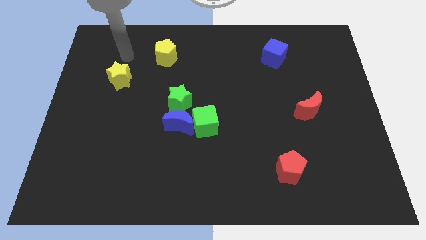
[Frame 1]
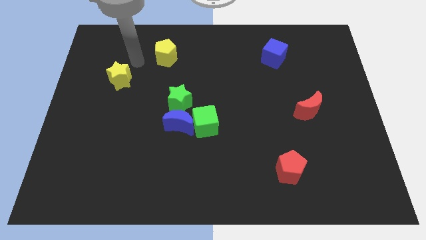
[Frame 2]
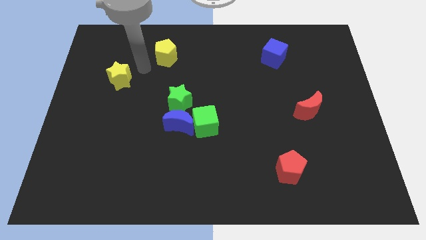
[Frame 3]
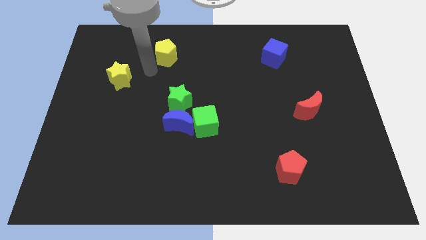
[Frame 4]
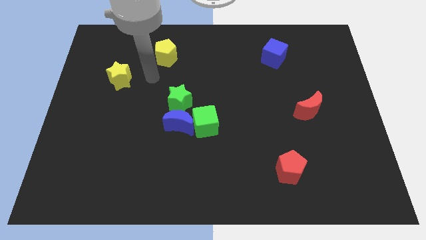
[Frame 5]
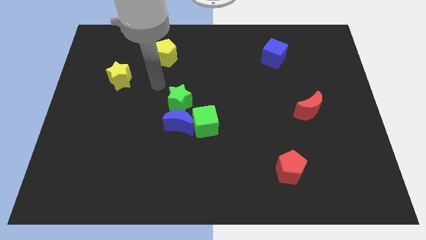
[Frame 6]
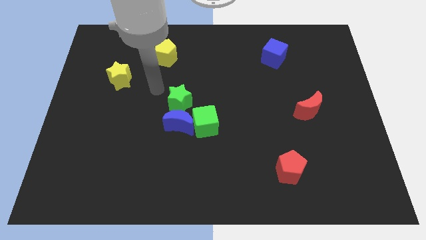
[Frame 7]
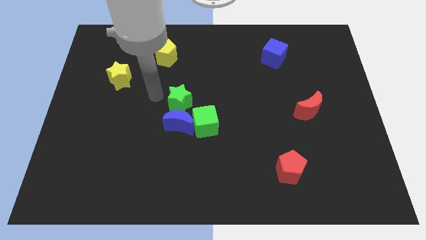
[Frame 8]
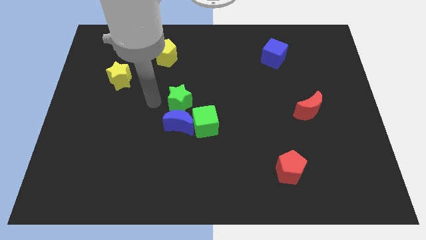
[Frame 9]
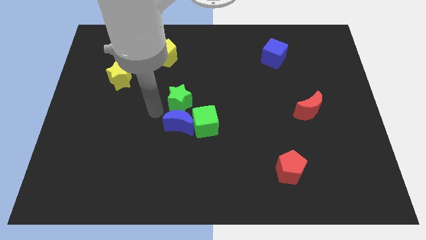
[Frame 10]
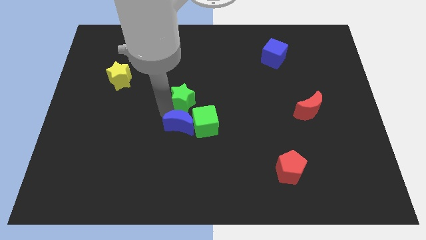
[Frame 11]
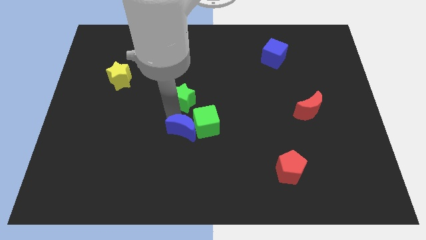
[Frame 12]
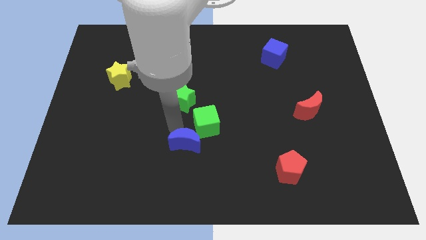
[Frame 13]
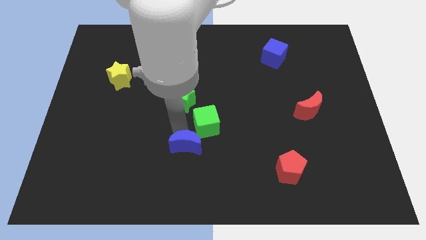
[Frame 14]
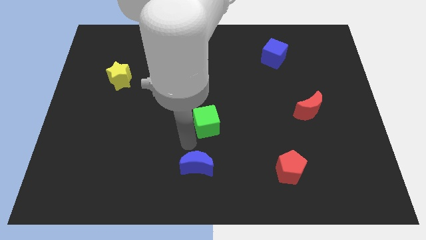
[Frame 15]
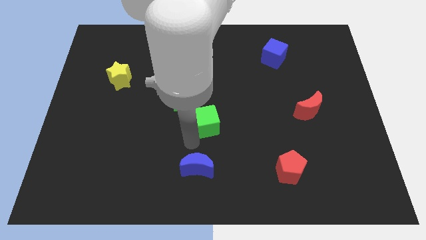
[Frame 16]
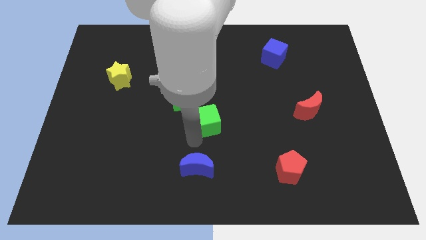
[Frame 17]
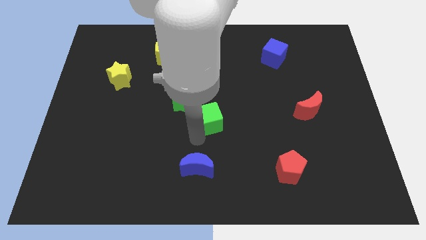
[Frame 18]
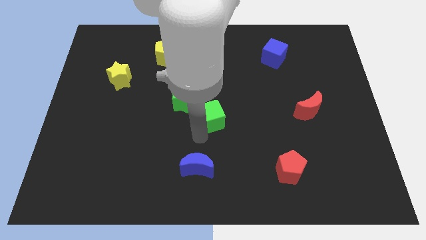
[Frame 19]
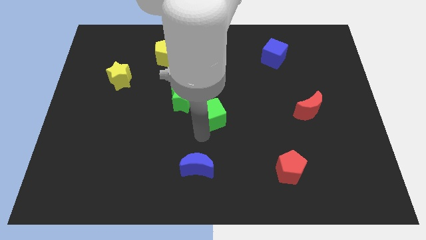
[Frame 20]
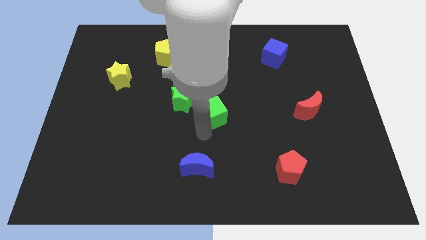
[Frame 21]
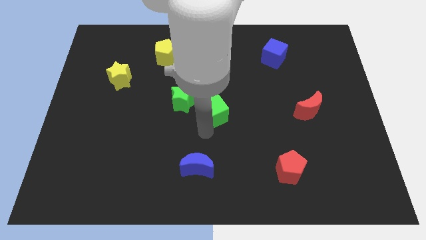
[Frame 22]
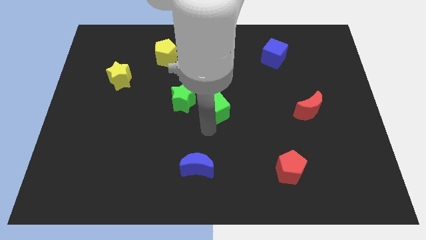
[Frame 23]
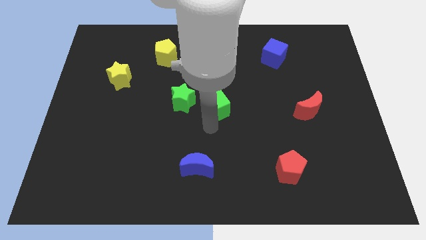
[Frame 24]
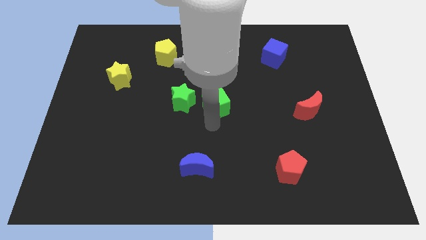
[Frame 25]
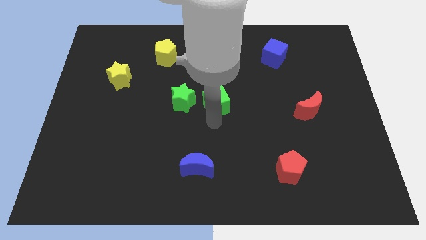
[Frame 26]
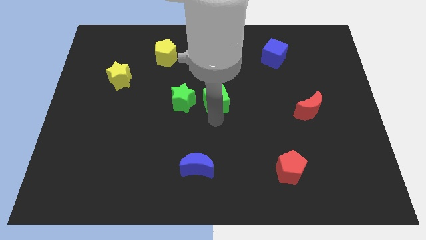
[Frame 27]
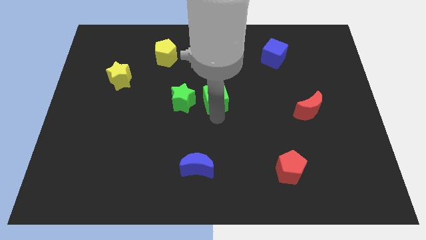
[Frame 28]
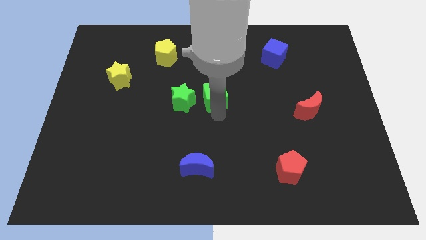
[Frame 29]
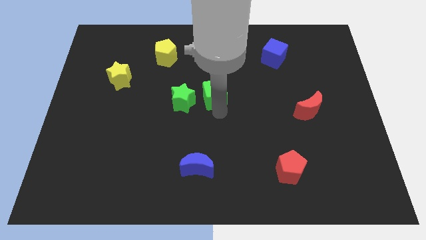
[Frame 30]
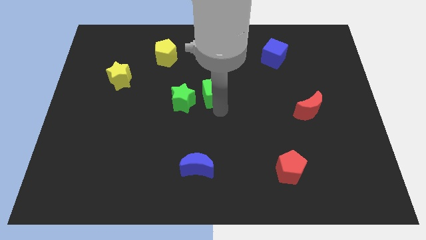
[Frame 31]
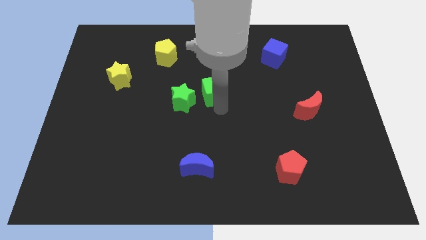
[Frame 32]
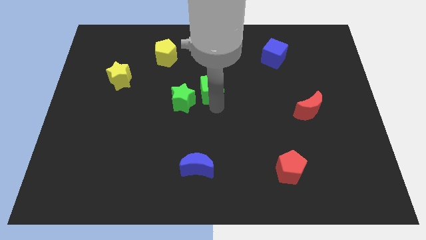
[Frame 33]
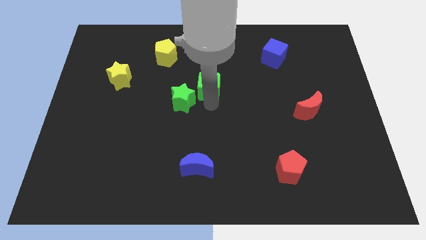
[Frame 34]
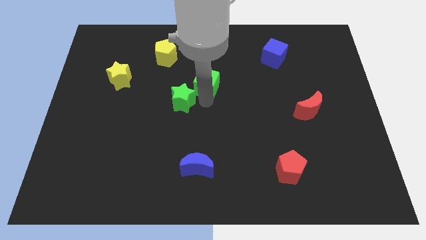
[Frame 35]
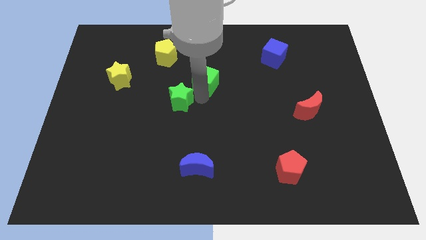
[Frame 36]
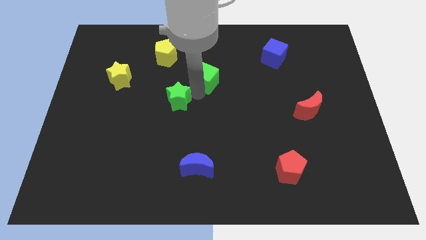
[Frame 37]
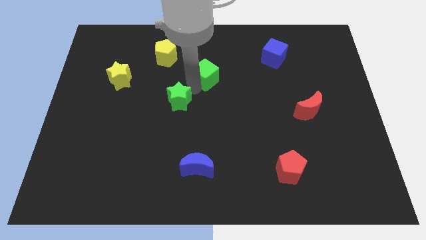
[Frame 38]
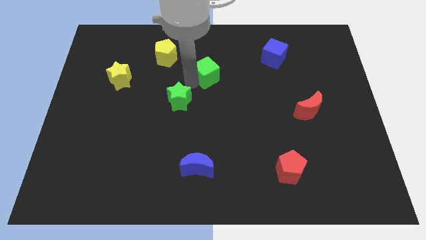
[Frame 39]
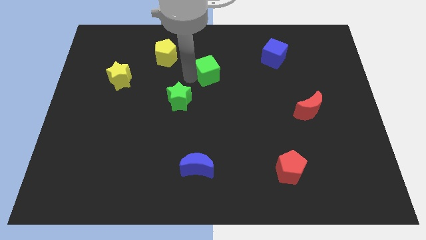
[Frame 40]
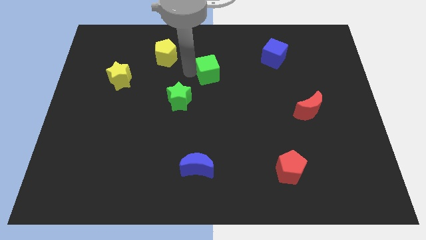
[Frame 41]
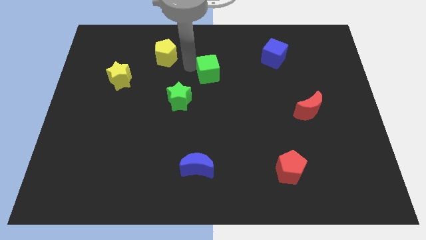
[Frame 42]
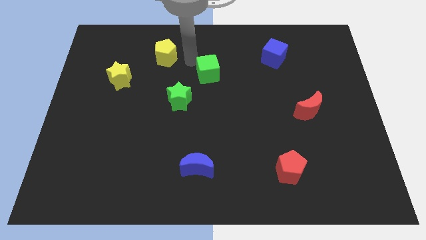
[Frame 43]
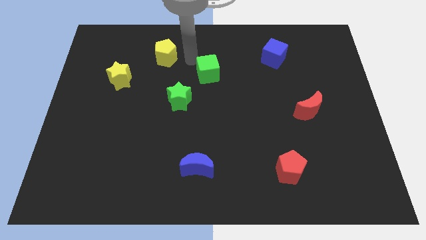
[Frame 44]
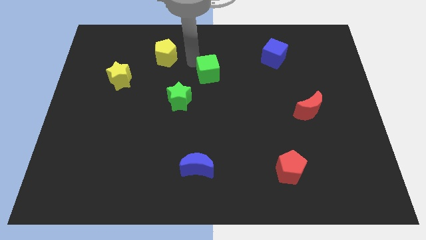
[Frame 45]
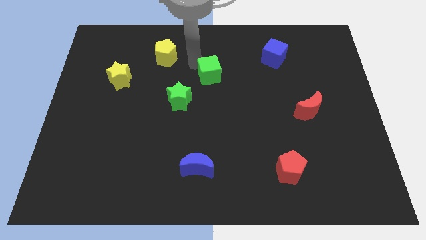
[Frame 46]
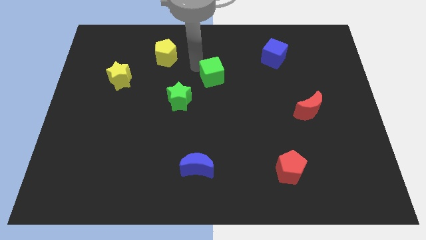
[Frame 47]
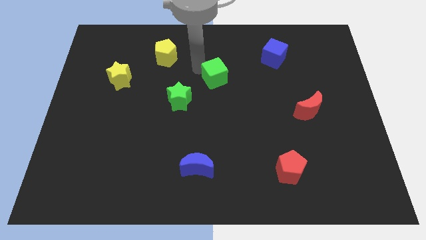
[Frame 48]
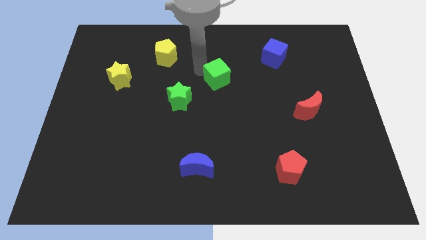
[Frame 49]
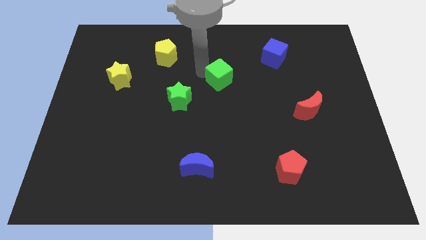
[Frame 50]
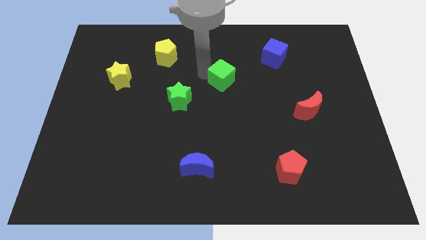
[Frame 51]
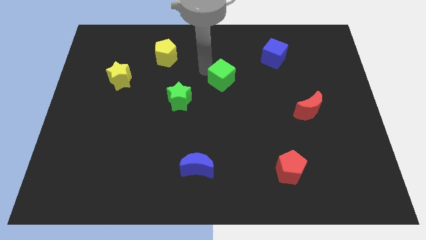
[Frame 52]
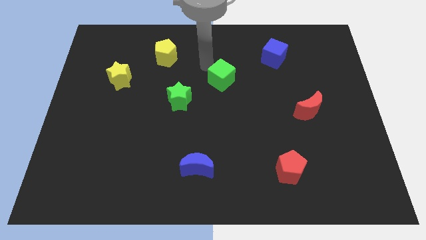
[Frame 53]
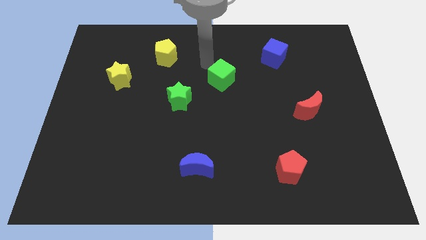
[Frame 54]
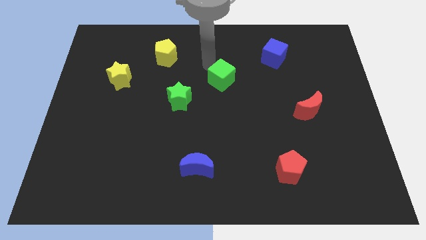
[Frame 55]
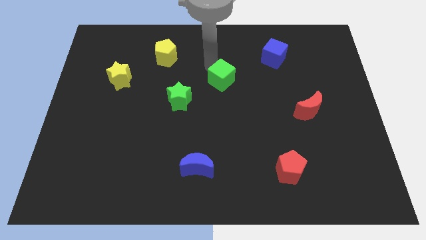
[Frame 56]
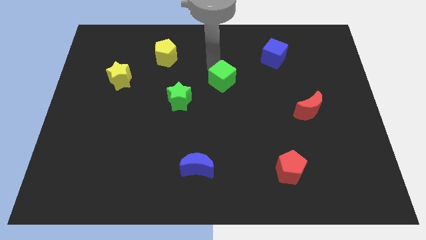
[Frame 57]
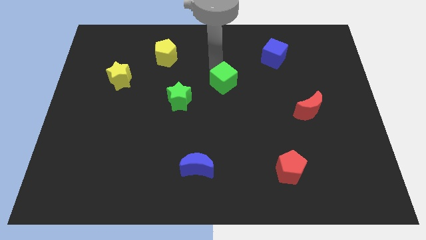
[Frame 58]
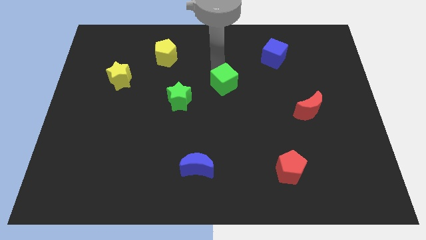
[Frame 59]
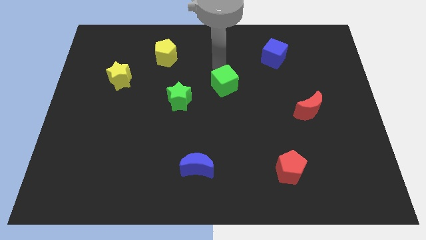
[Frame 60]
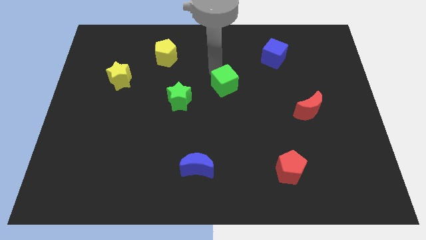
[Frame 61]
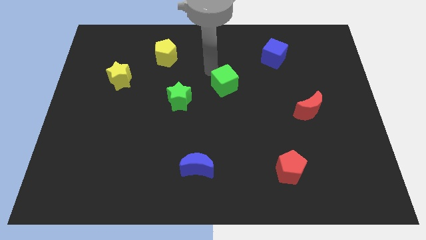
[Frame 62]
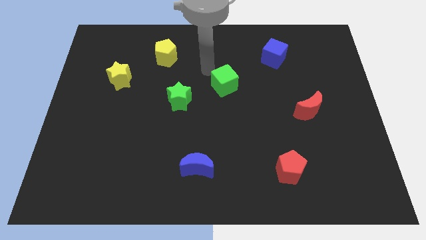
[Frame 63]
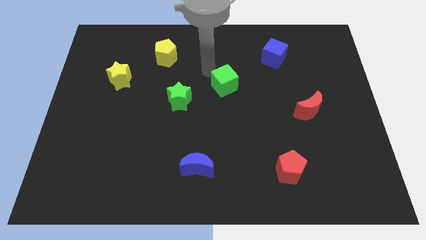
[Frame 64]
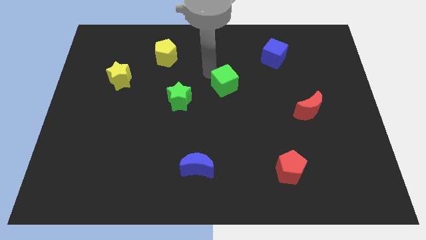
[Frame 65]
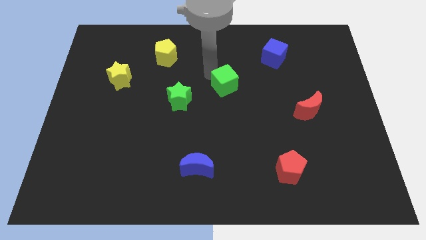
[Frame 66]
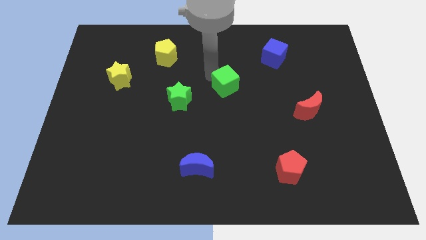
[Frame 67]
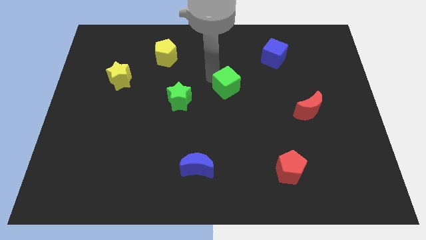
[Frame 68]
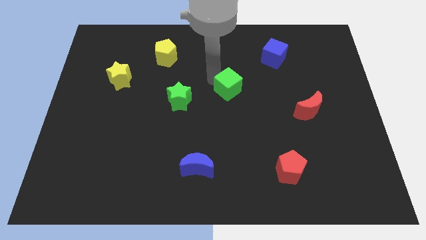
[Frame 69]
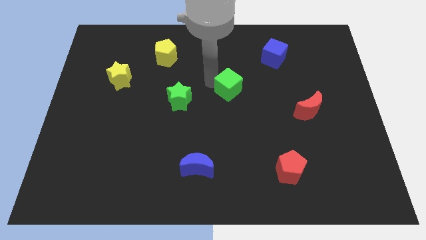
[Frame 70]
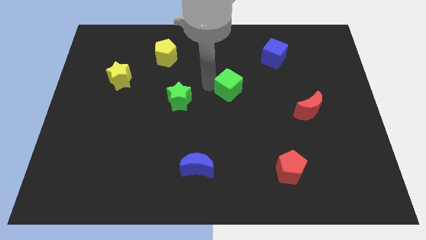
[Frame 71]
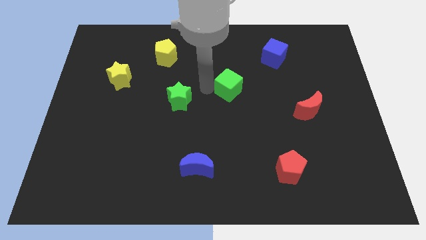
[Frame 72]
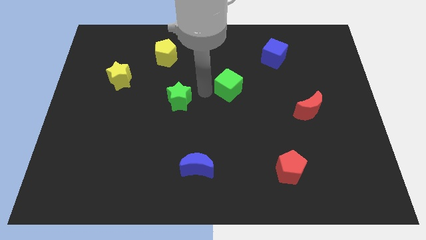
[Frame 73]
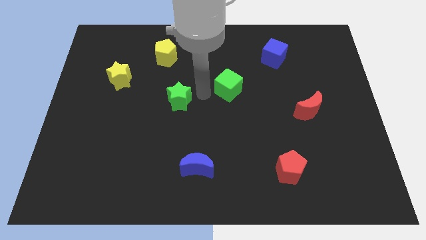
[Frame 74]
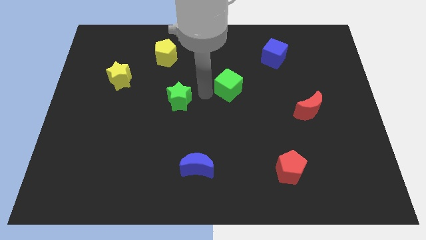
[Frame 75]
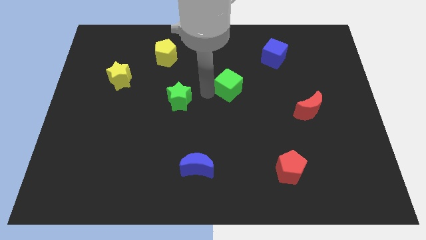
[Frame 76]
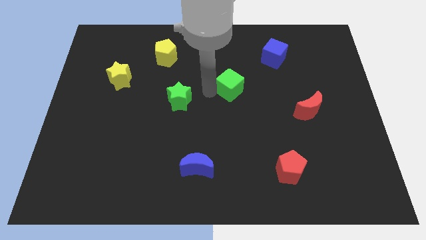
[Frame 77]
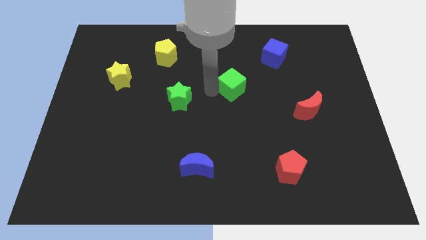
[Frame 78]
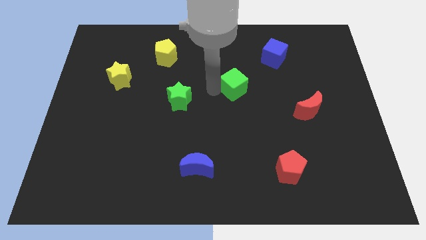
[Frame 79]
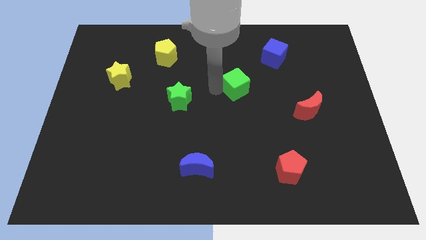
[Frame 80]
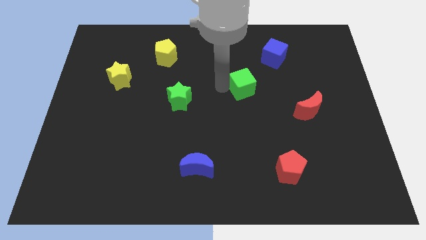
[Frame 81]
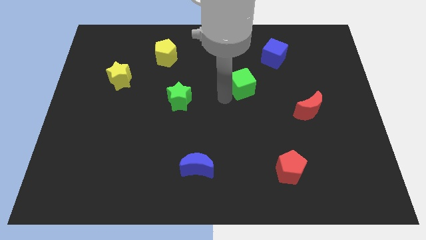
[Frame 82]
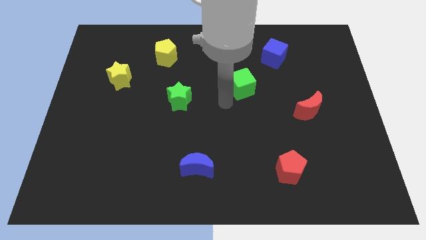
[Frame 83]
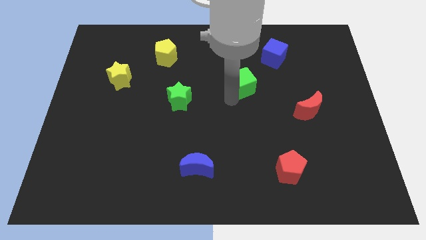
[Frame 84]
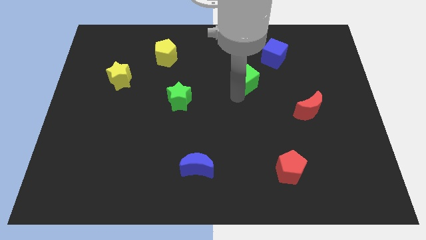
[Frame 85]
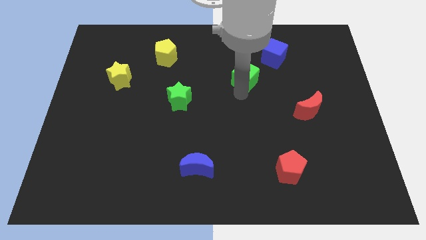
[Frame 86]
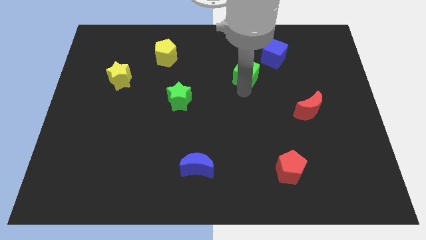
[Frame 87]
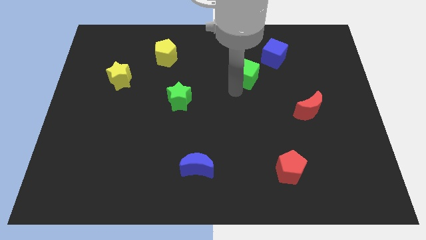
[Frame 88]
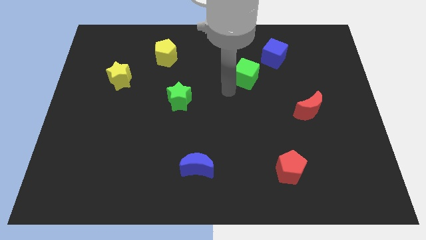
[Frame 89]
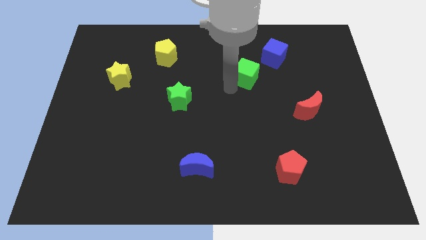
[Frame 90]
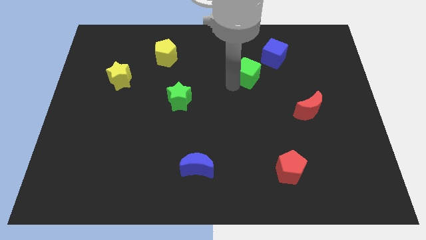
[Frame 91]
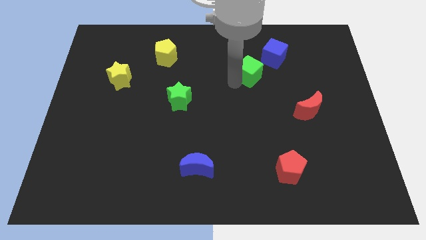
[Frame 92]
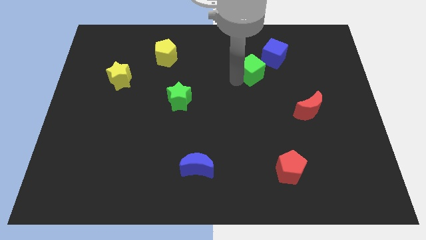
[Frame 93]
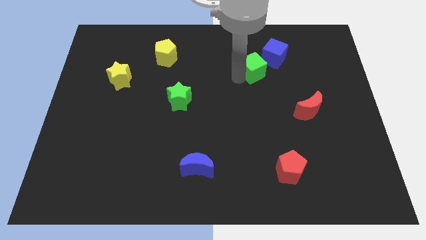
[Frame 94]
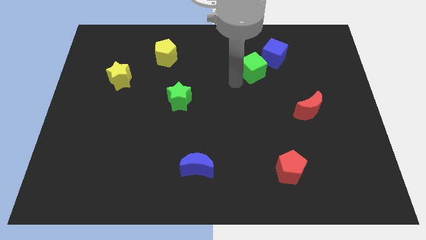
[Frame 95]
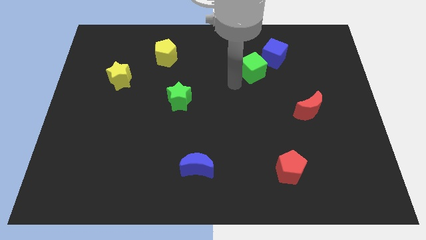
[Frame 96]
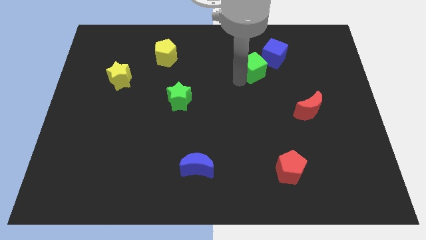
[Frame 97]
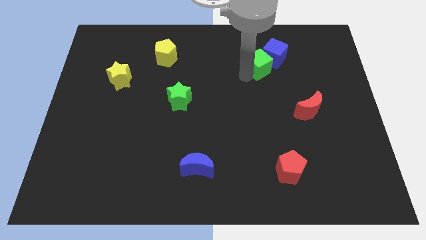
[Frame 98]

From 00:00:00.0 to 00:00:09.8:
push the green cube to the blue cube
